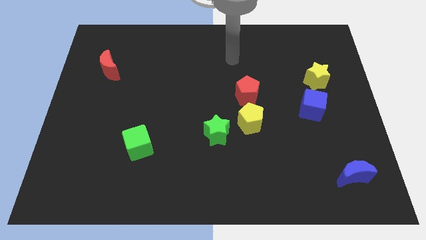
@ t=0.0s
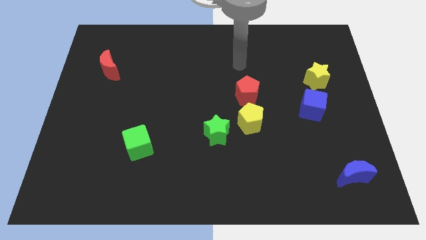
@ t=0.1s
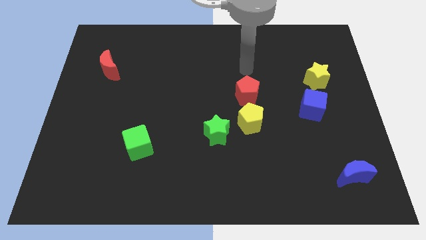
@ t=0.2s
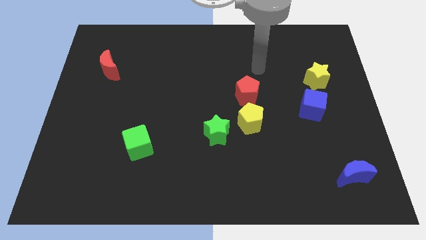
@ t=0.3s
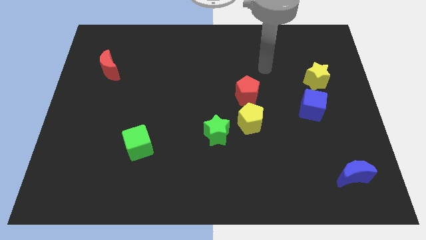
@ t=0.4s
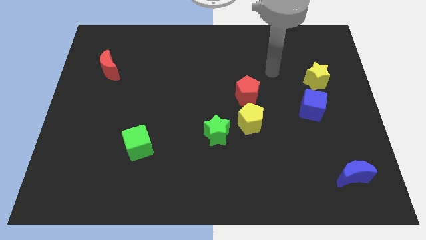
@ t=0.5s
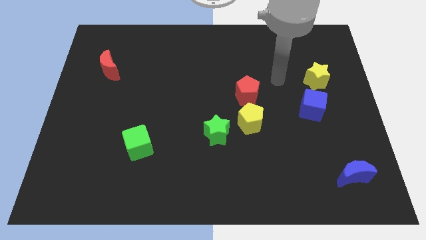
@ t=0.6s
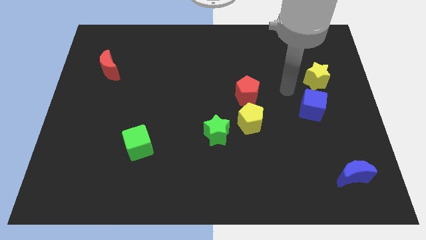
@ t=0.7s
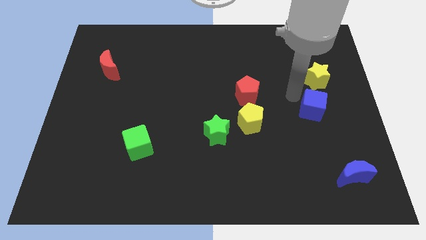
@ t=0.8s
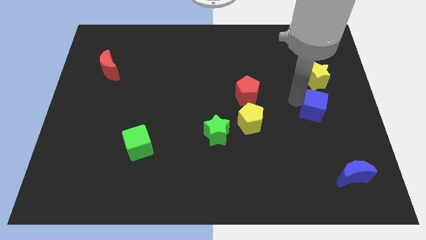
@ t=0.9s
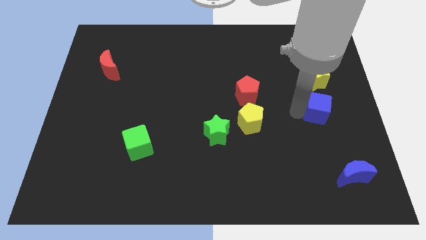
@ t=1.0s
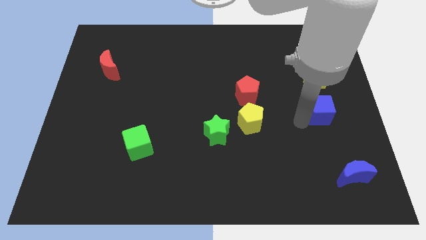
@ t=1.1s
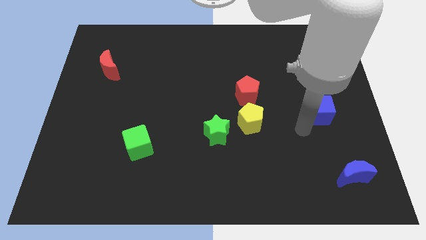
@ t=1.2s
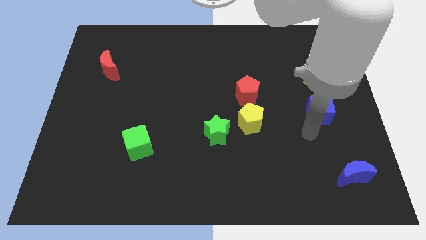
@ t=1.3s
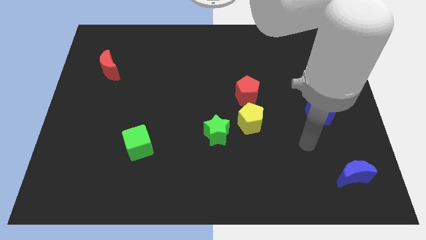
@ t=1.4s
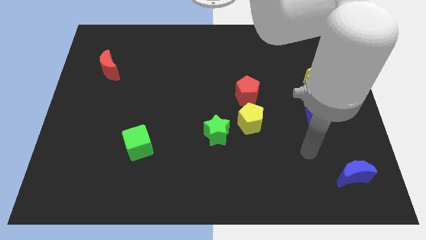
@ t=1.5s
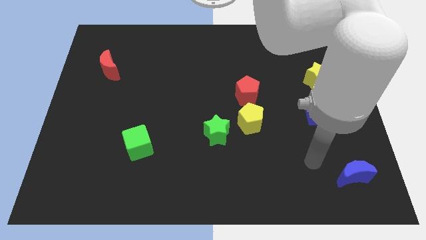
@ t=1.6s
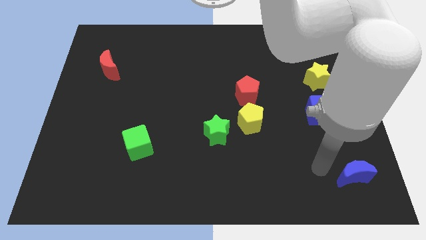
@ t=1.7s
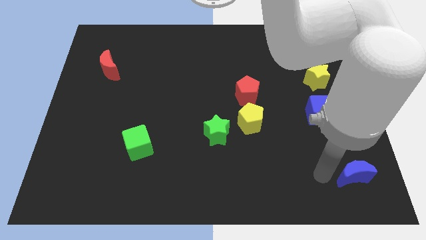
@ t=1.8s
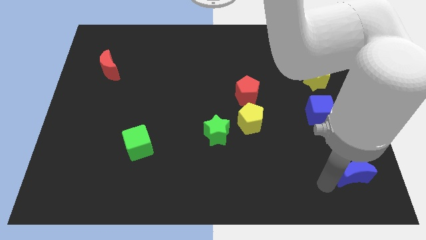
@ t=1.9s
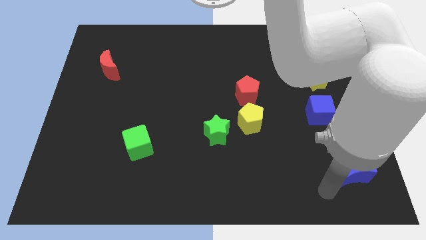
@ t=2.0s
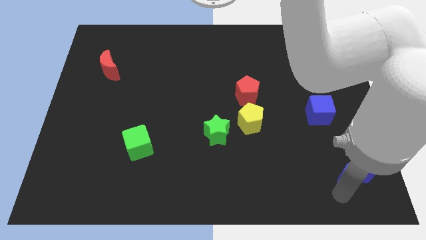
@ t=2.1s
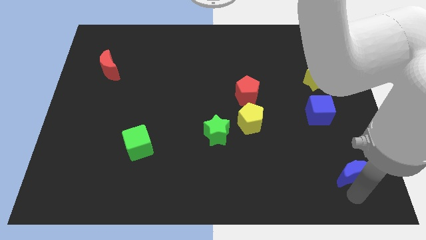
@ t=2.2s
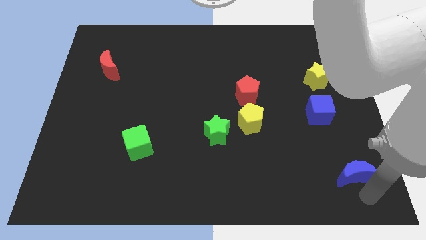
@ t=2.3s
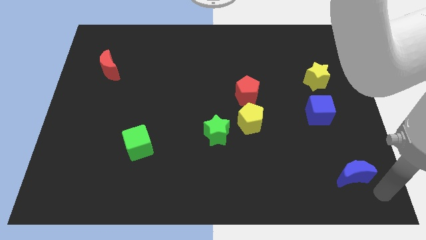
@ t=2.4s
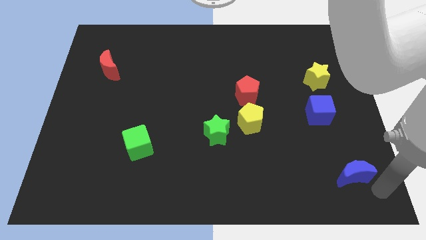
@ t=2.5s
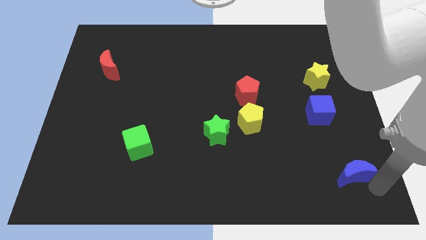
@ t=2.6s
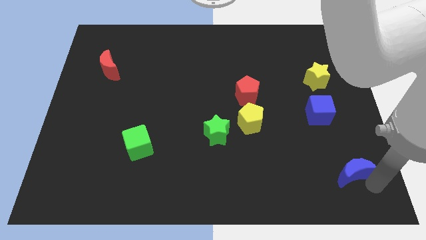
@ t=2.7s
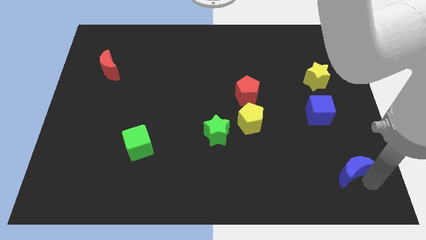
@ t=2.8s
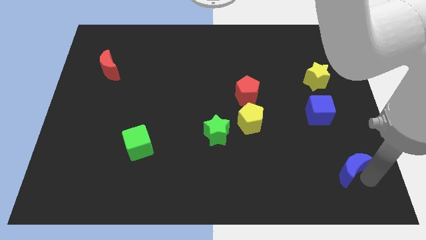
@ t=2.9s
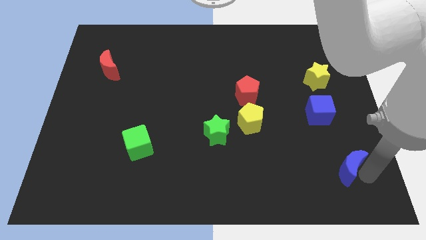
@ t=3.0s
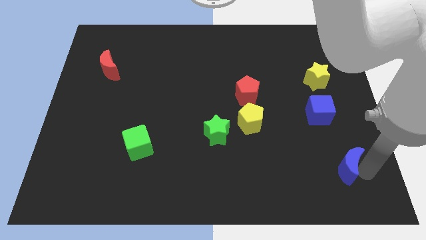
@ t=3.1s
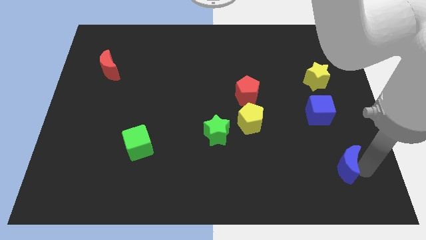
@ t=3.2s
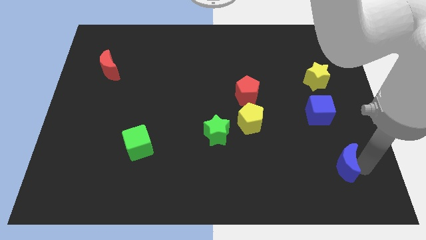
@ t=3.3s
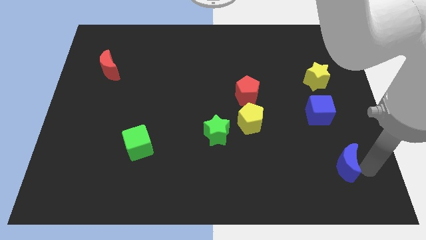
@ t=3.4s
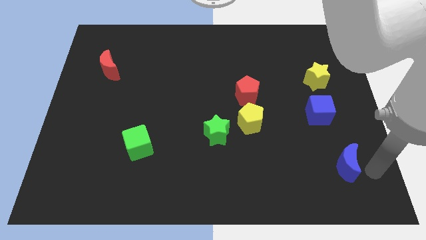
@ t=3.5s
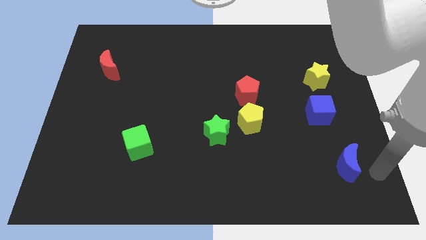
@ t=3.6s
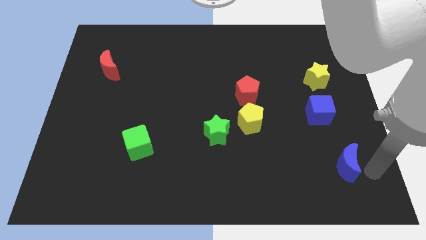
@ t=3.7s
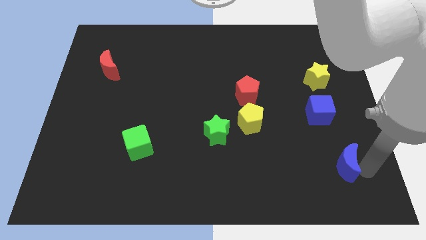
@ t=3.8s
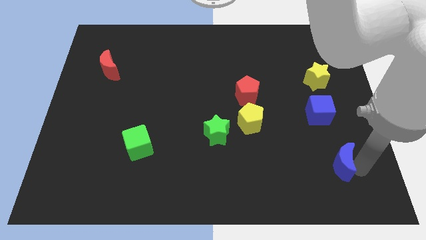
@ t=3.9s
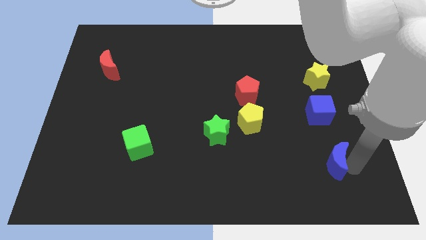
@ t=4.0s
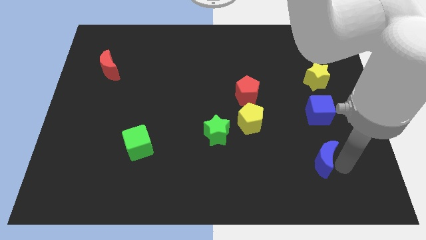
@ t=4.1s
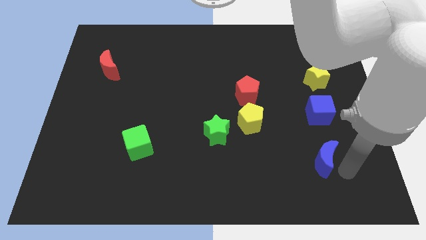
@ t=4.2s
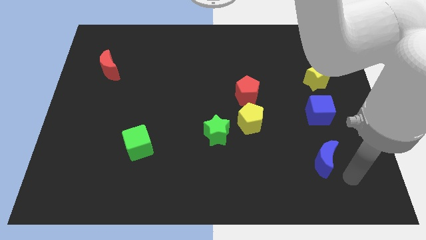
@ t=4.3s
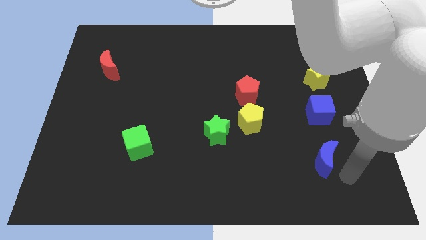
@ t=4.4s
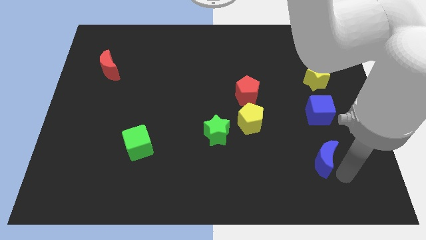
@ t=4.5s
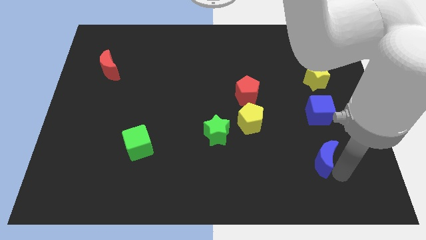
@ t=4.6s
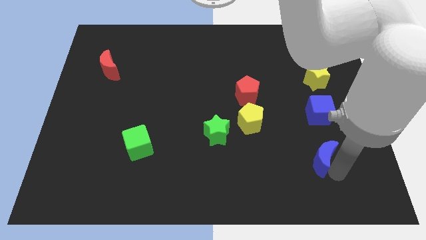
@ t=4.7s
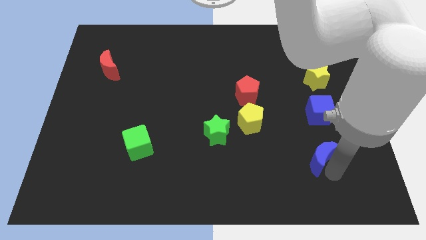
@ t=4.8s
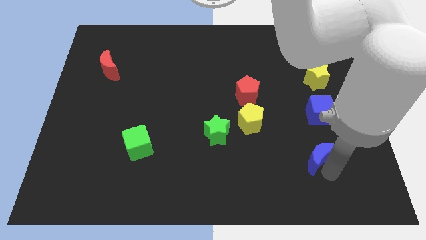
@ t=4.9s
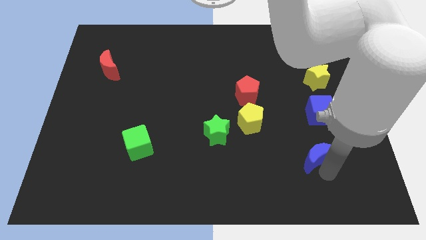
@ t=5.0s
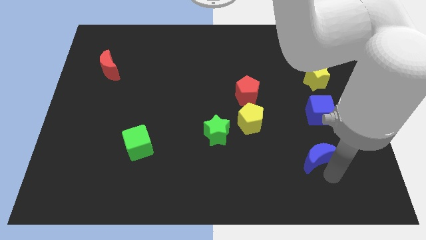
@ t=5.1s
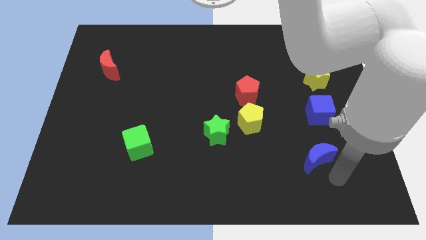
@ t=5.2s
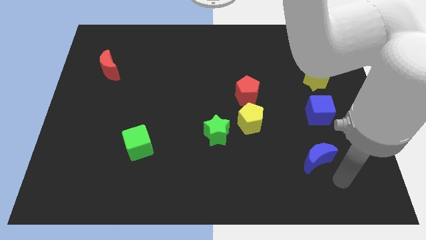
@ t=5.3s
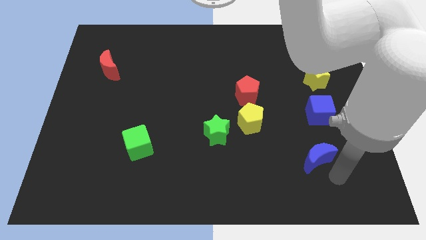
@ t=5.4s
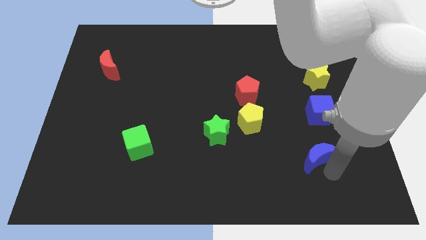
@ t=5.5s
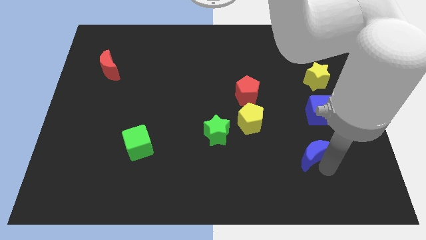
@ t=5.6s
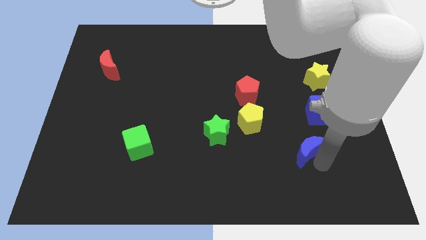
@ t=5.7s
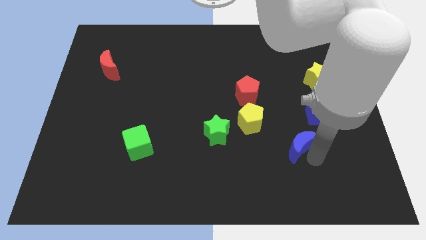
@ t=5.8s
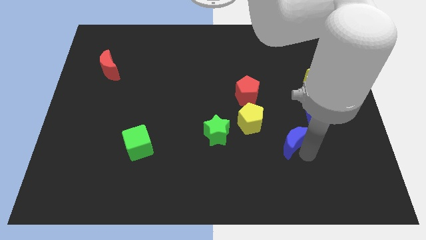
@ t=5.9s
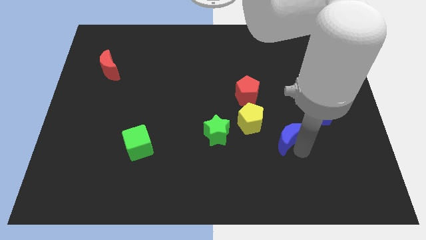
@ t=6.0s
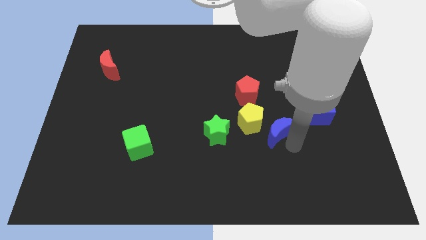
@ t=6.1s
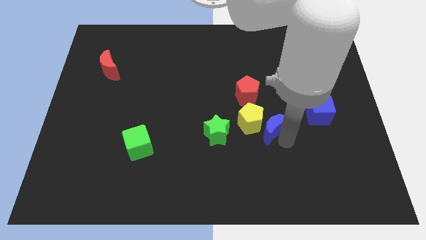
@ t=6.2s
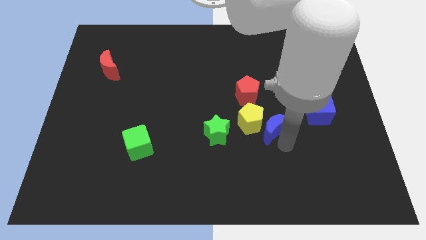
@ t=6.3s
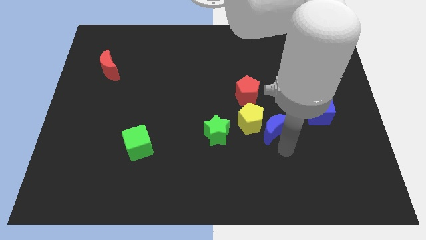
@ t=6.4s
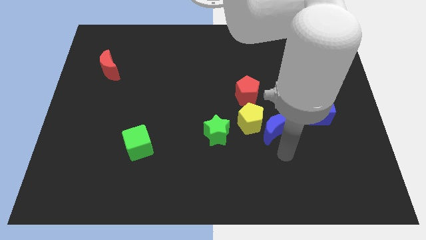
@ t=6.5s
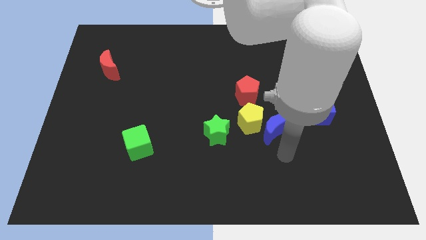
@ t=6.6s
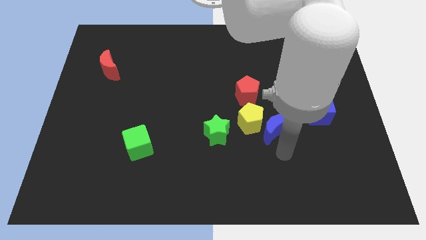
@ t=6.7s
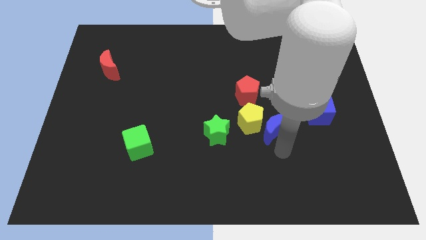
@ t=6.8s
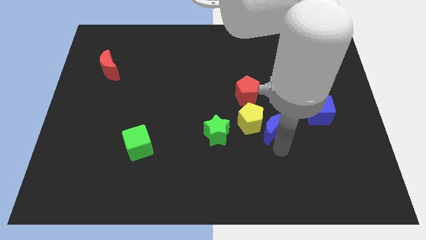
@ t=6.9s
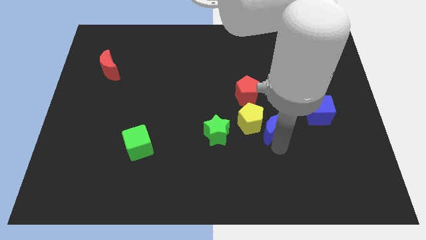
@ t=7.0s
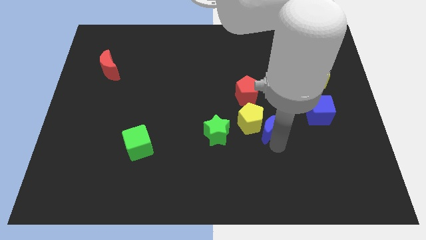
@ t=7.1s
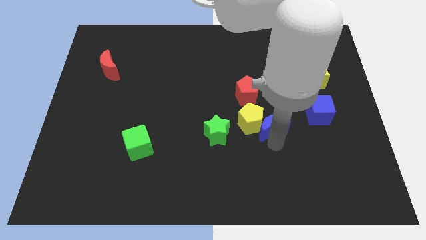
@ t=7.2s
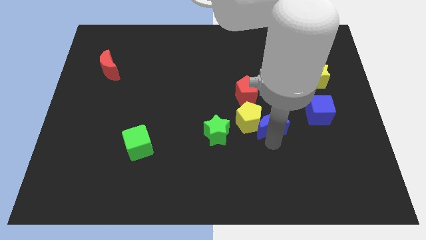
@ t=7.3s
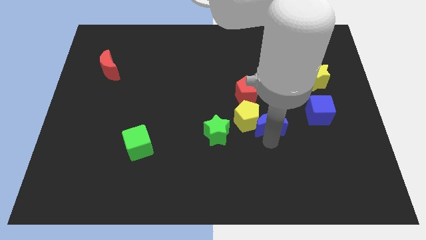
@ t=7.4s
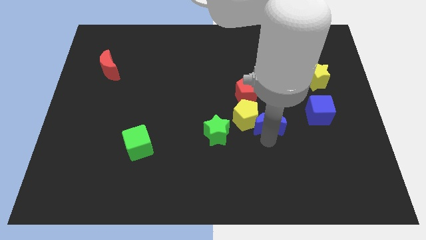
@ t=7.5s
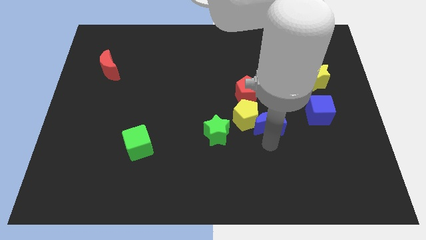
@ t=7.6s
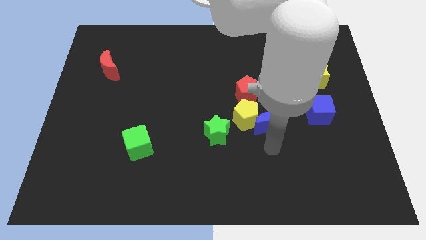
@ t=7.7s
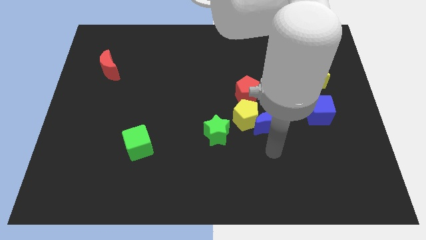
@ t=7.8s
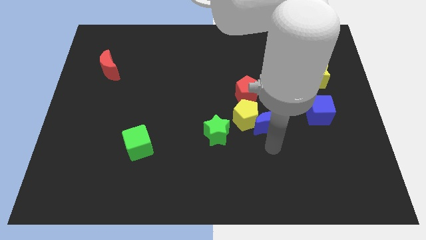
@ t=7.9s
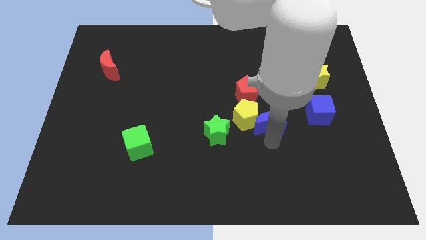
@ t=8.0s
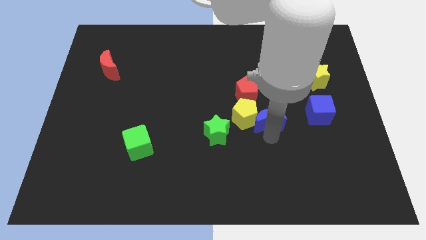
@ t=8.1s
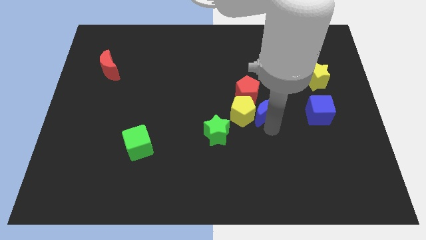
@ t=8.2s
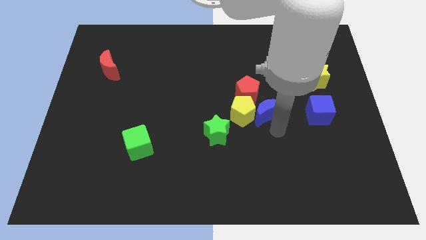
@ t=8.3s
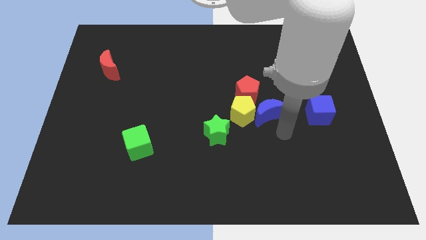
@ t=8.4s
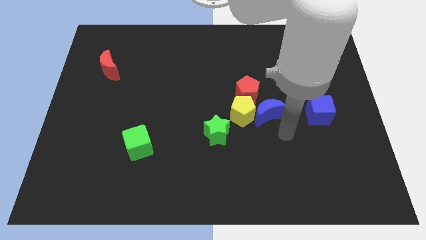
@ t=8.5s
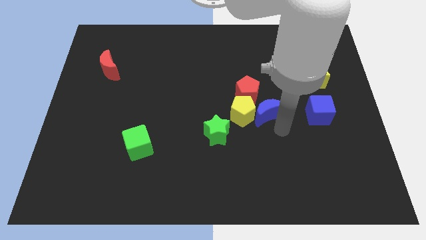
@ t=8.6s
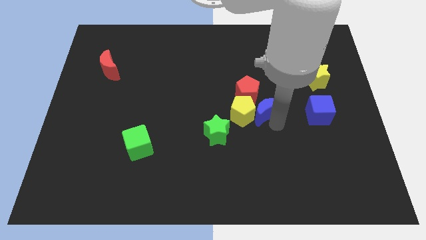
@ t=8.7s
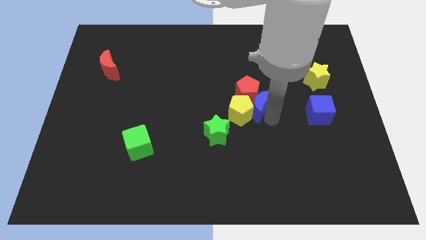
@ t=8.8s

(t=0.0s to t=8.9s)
move the blue moon towards the red pentagon
